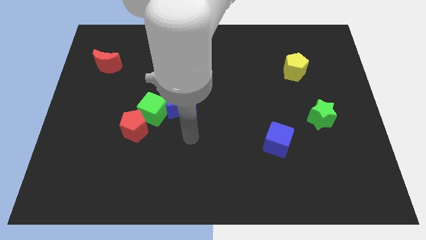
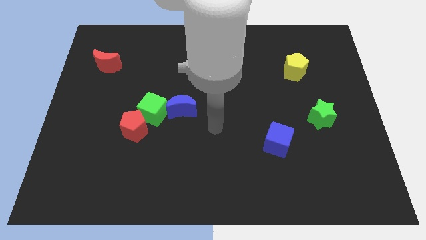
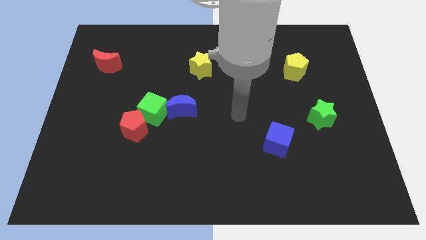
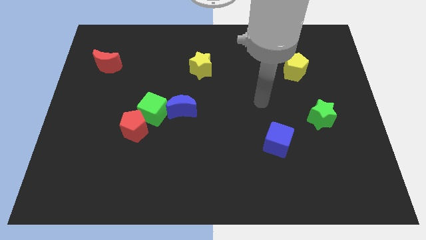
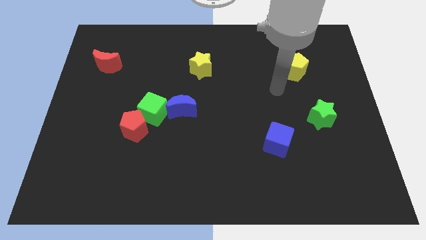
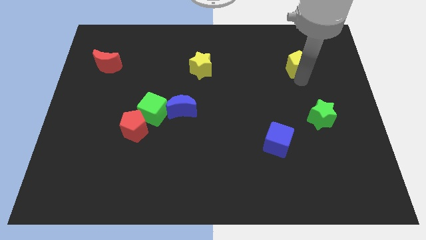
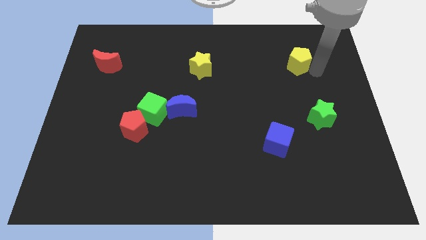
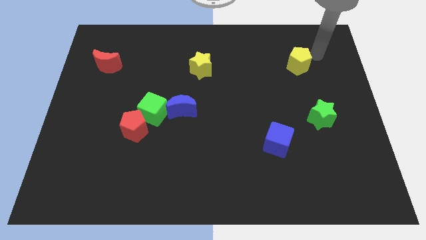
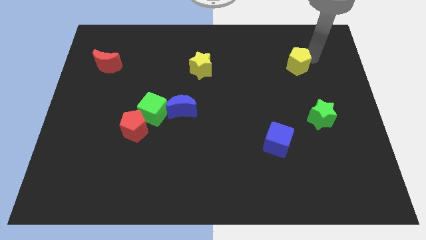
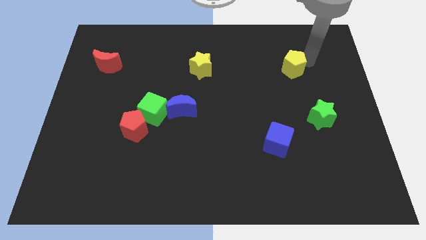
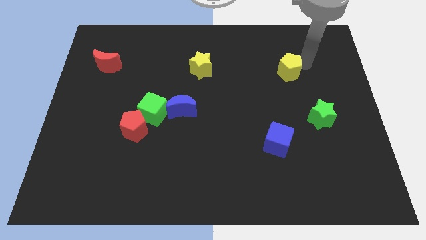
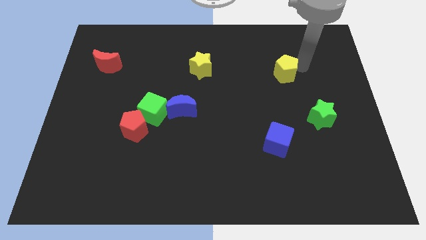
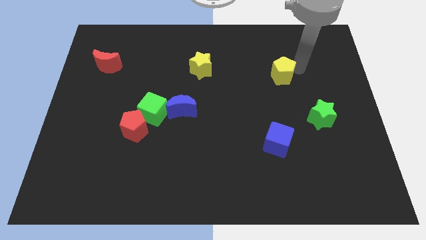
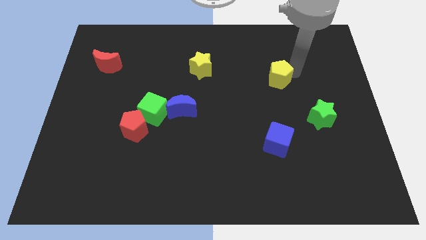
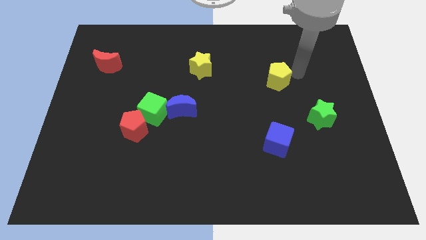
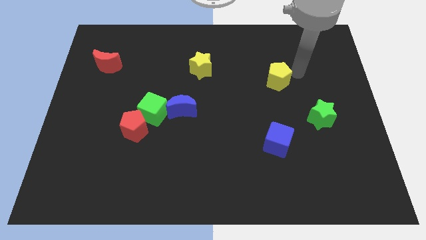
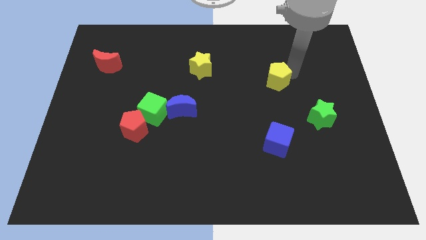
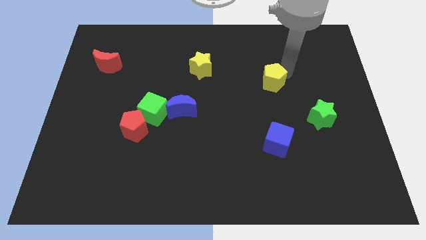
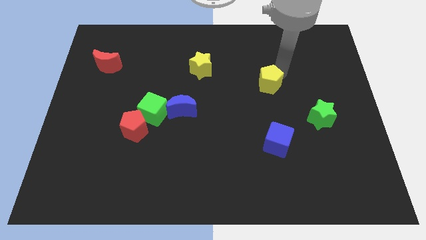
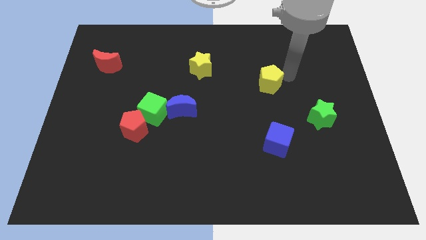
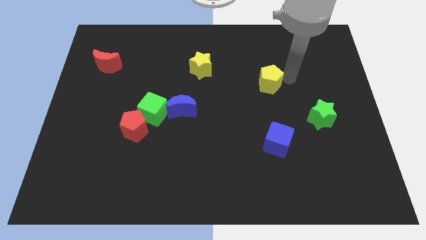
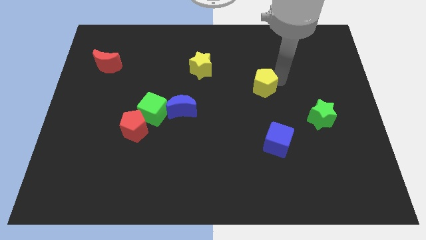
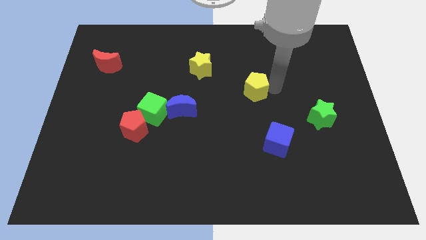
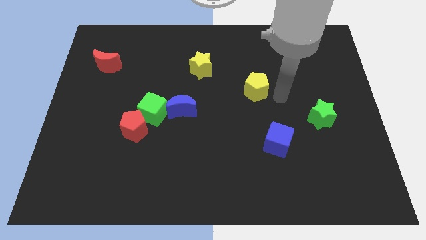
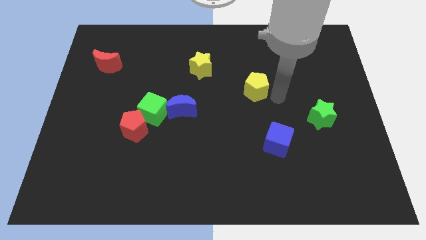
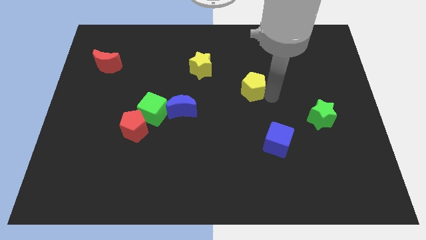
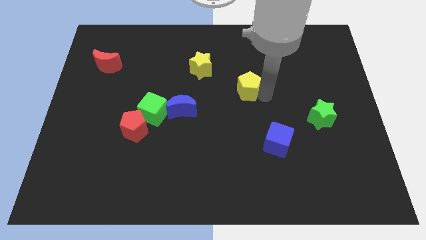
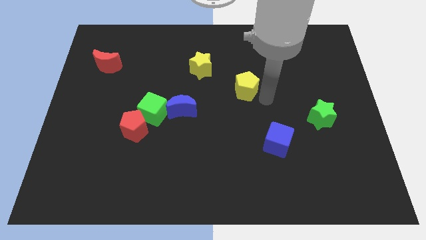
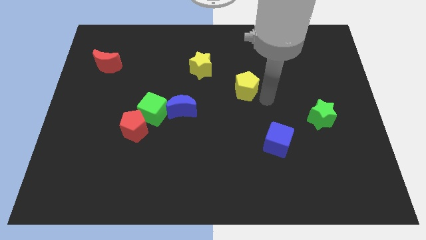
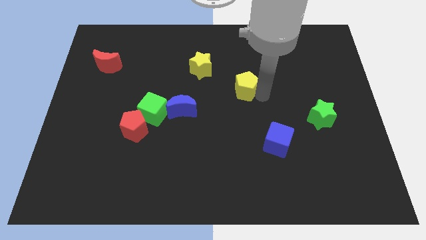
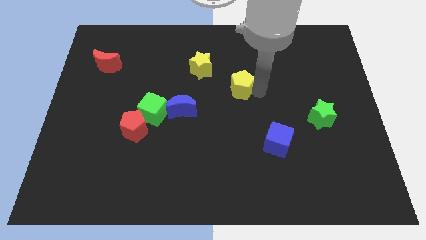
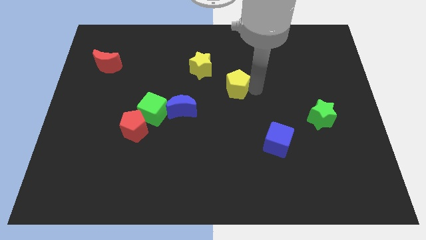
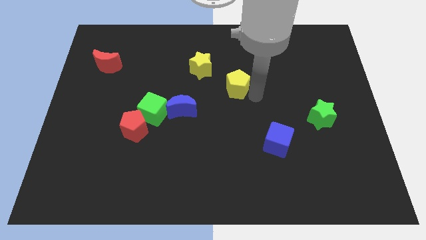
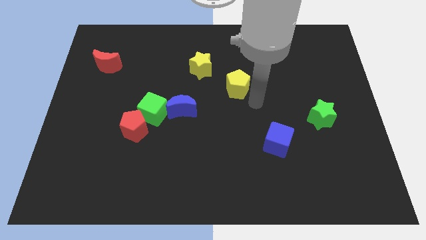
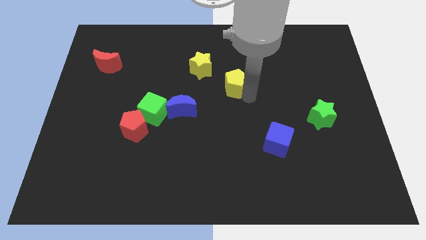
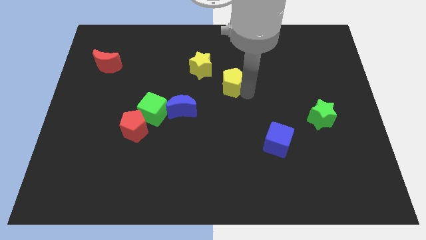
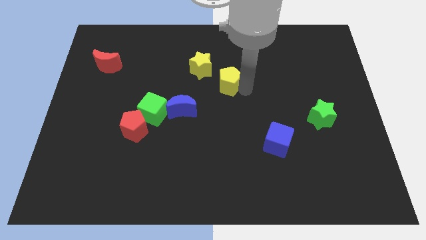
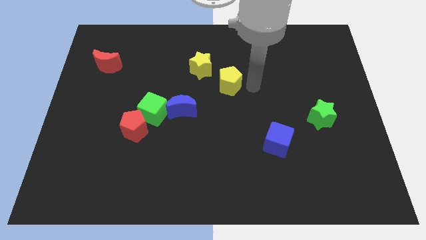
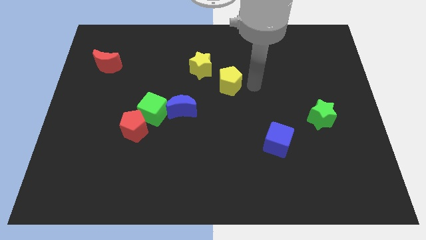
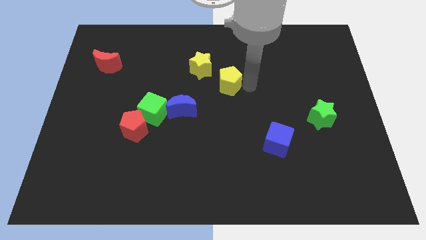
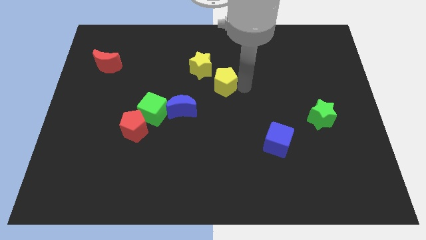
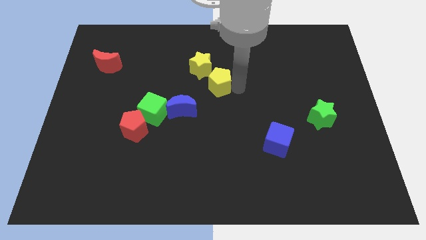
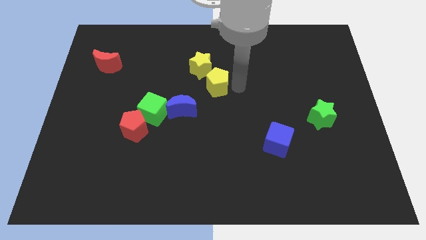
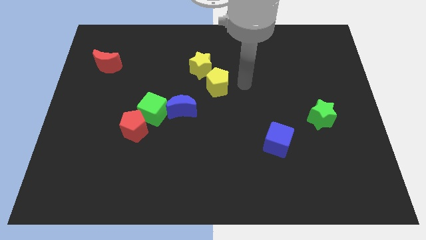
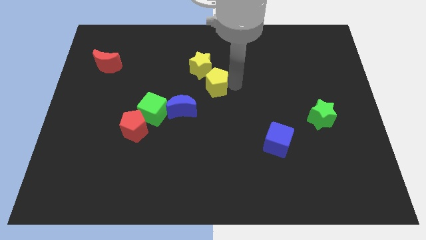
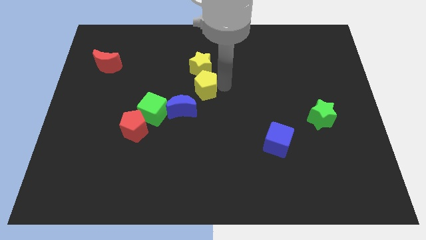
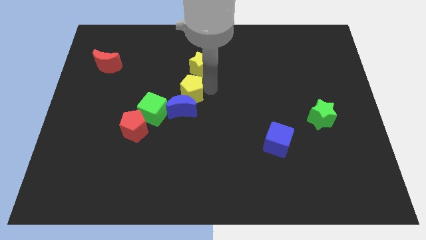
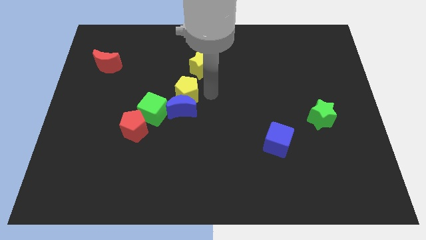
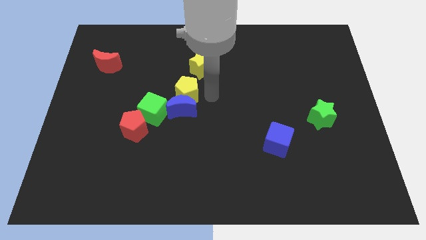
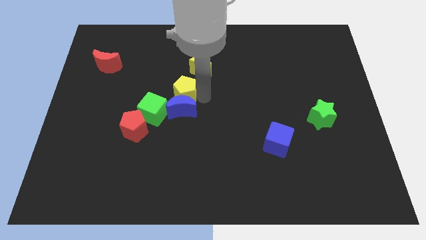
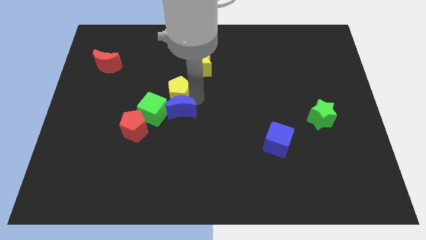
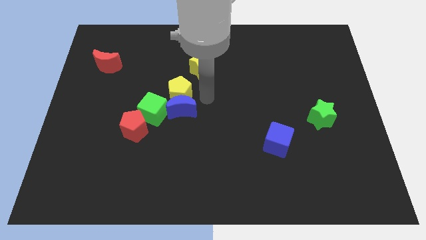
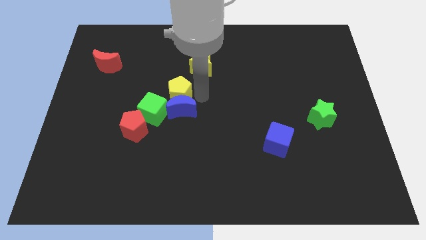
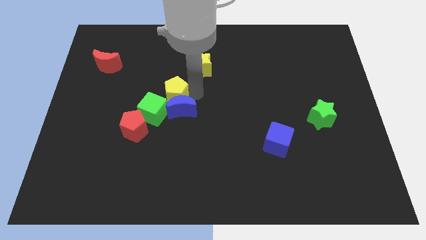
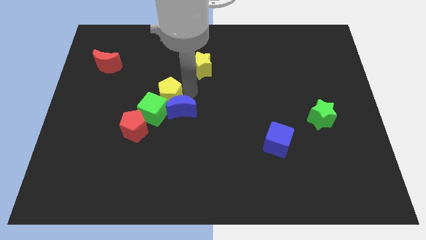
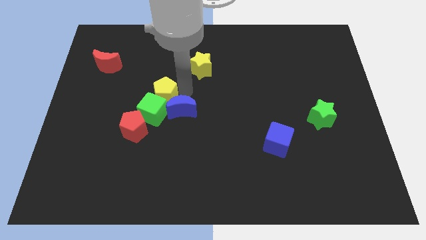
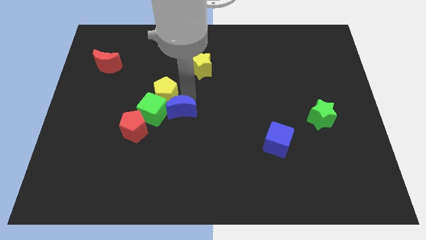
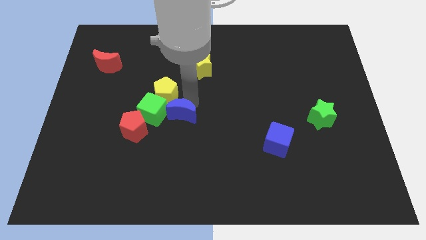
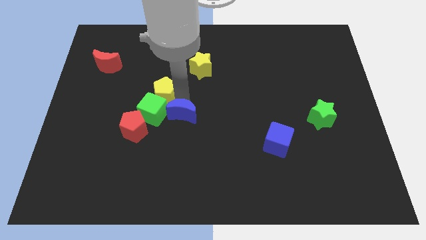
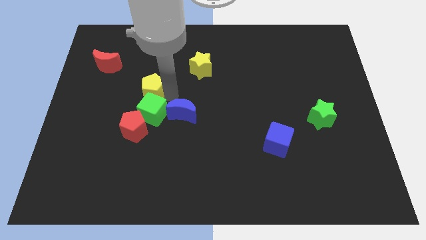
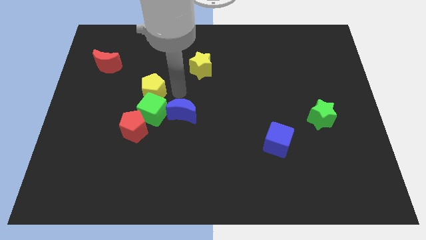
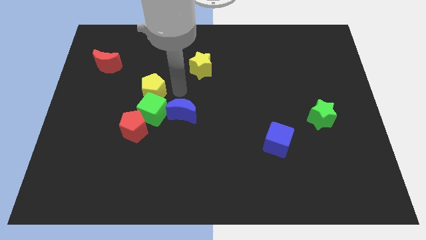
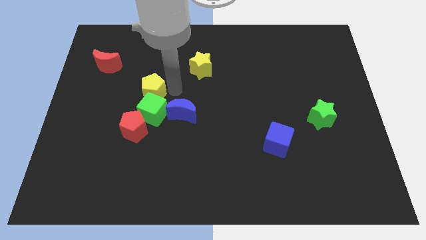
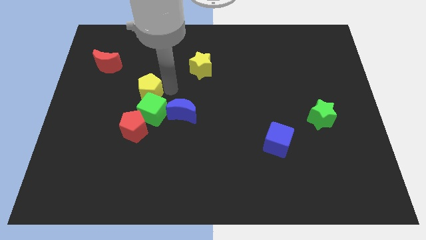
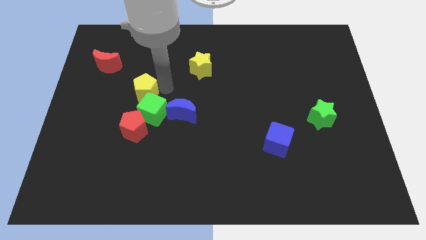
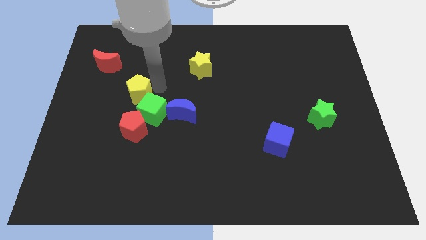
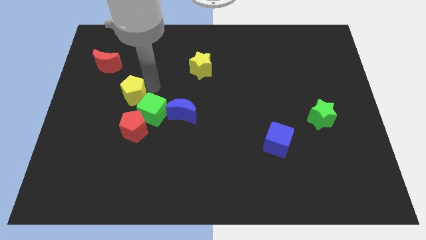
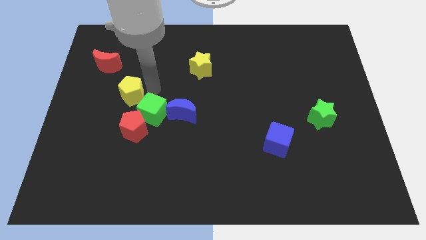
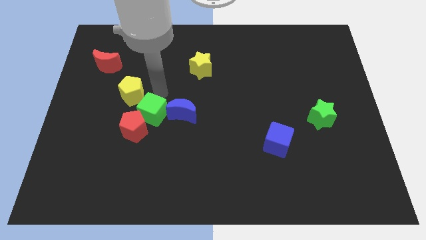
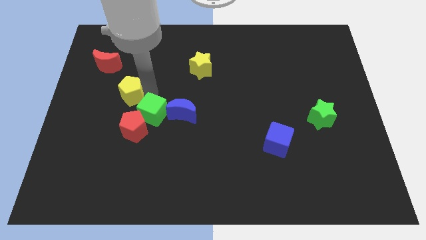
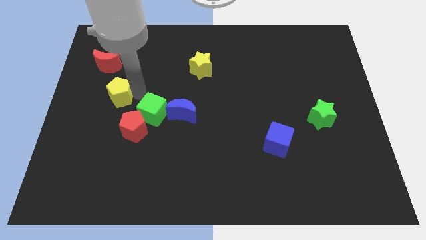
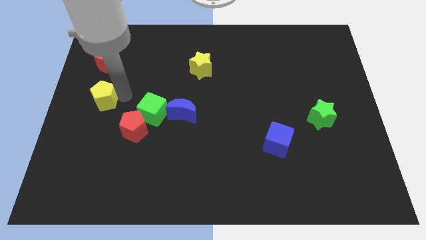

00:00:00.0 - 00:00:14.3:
slide the yellow pentagon to the left side

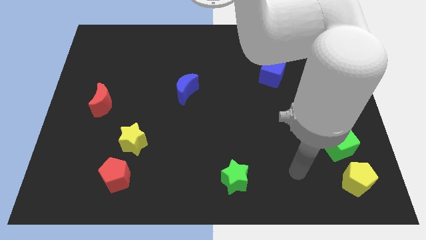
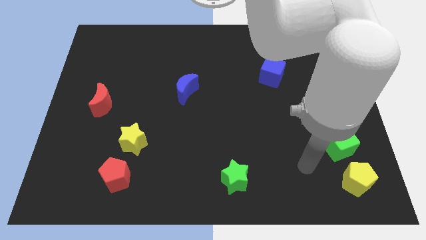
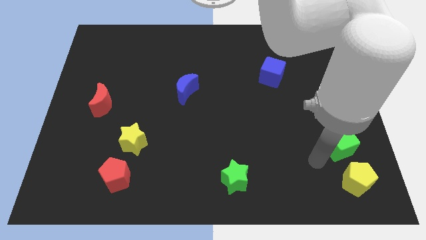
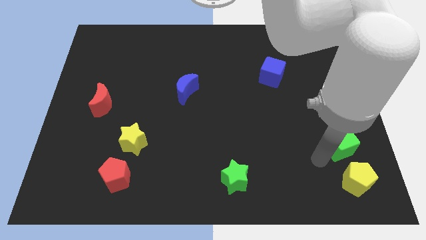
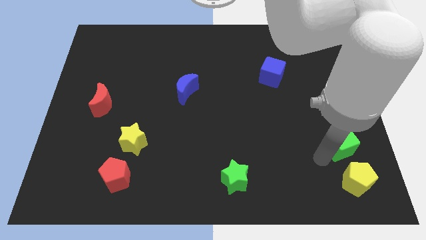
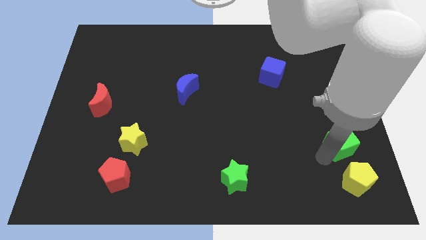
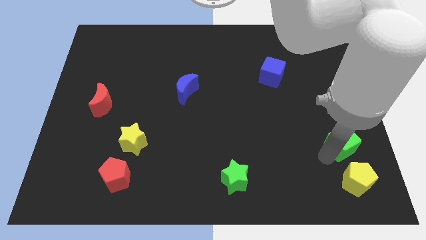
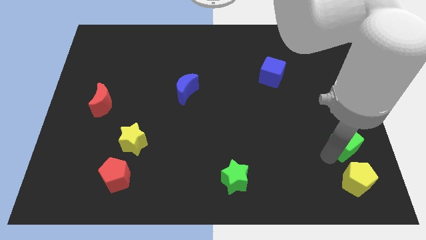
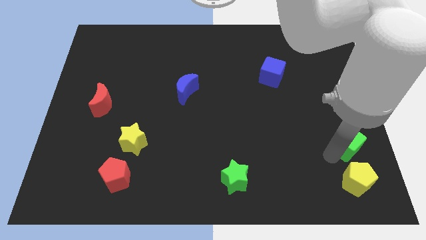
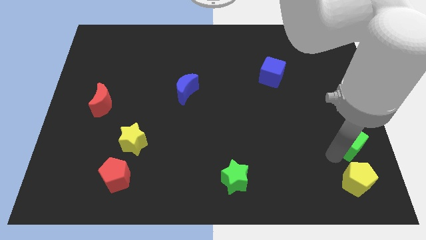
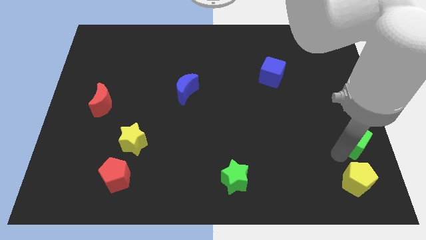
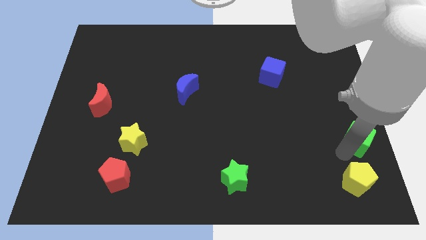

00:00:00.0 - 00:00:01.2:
move the green cube to the right side
